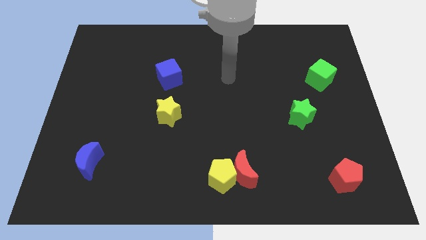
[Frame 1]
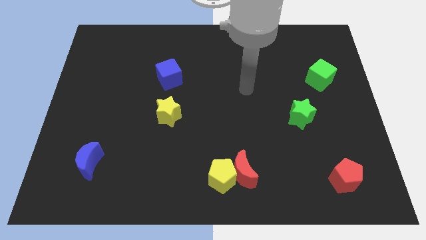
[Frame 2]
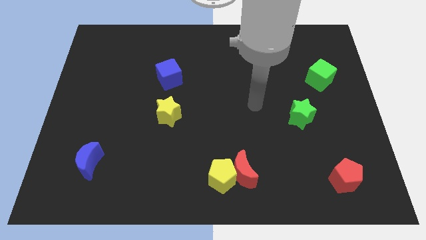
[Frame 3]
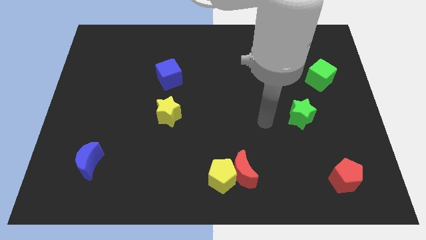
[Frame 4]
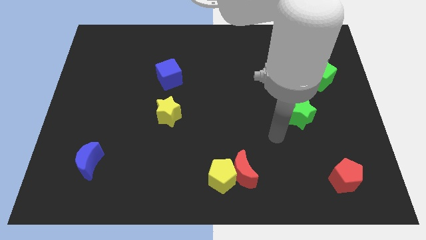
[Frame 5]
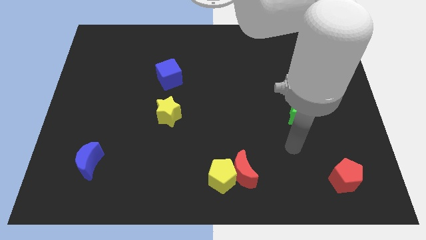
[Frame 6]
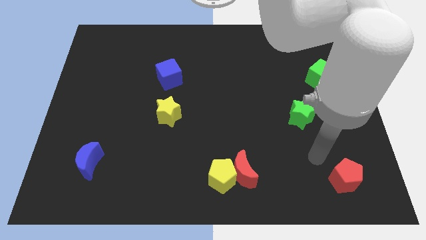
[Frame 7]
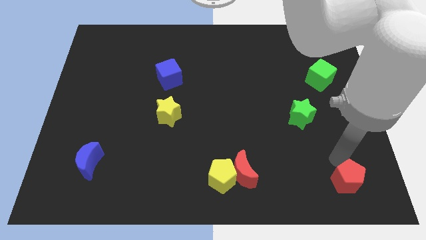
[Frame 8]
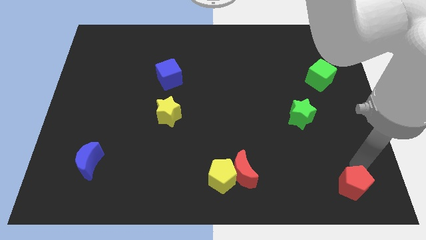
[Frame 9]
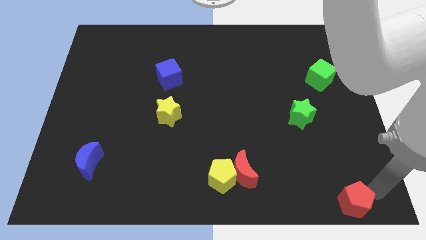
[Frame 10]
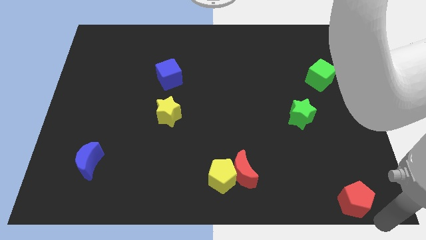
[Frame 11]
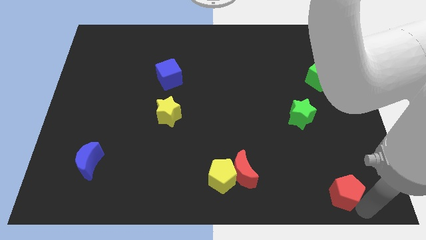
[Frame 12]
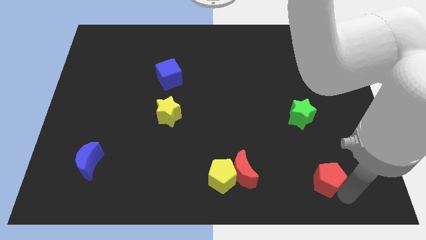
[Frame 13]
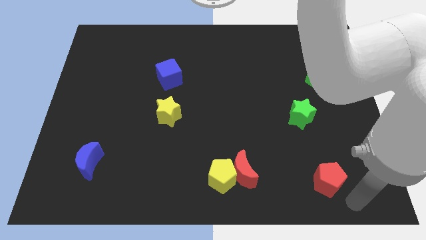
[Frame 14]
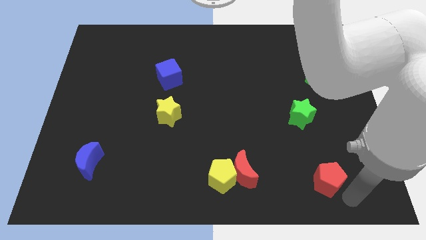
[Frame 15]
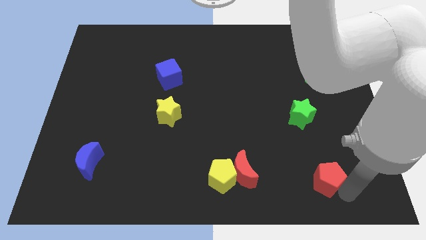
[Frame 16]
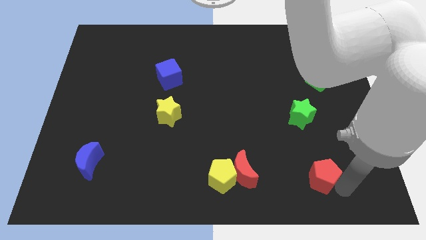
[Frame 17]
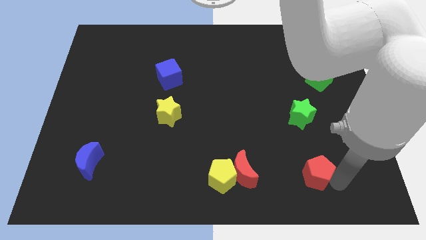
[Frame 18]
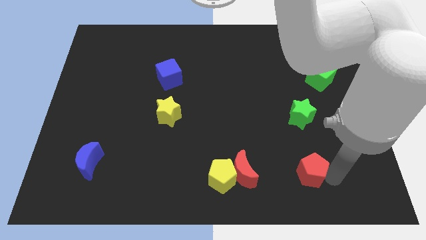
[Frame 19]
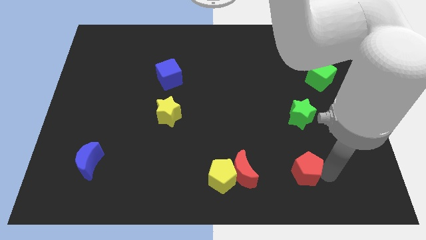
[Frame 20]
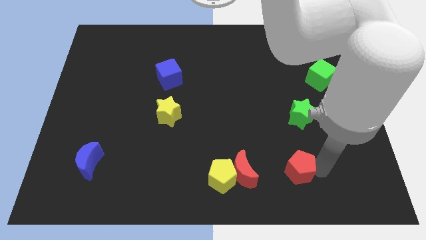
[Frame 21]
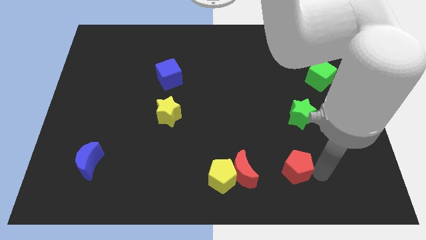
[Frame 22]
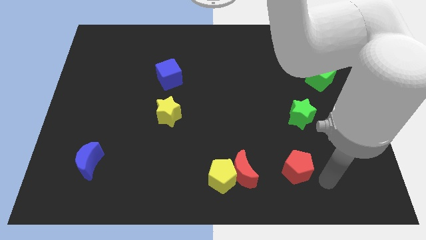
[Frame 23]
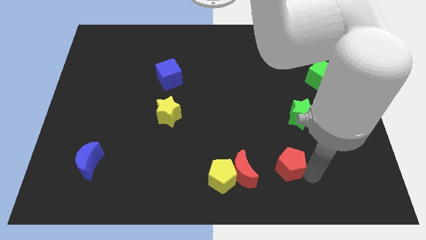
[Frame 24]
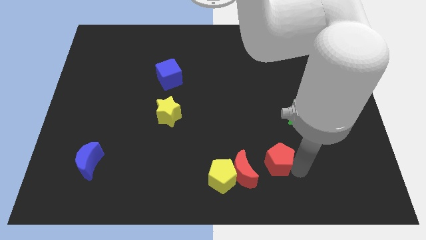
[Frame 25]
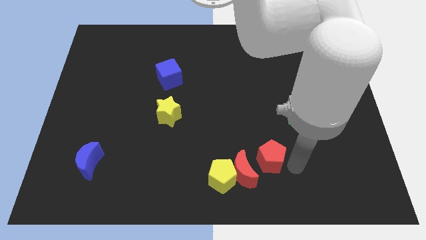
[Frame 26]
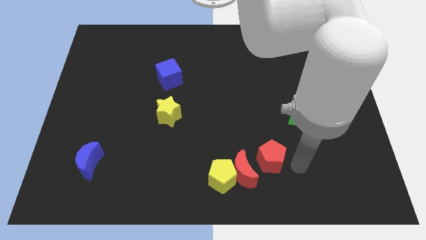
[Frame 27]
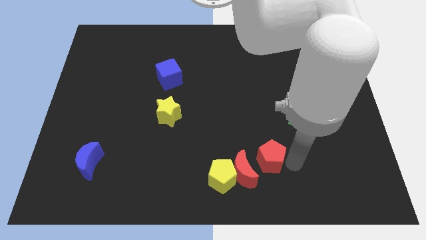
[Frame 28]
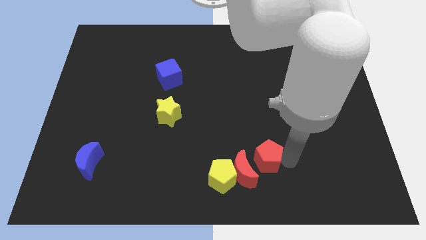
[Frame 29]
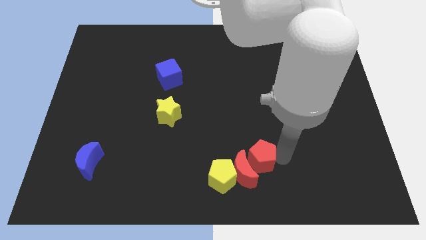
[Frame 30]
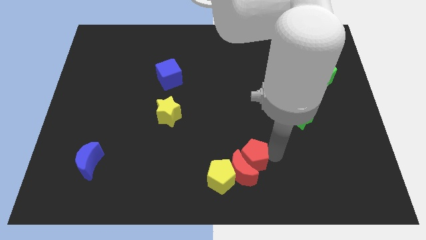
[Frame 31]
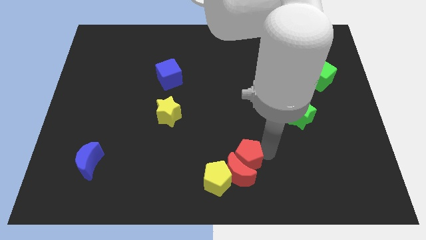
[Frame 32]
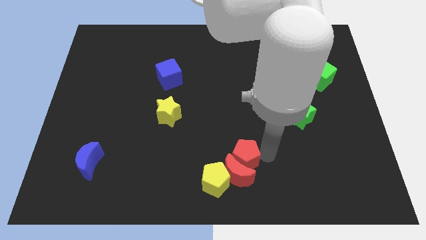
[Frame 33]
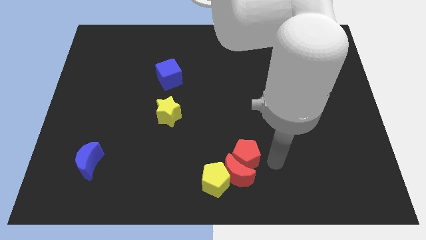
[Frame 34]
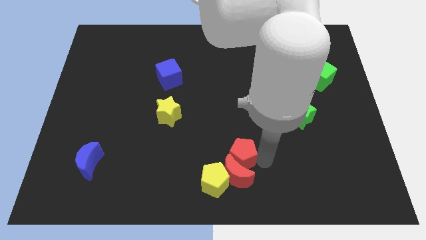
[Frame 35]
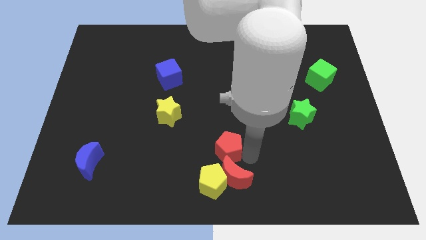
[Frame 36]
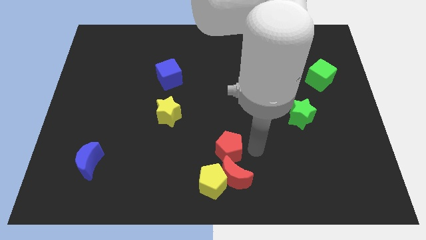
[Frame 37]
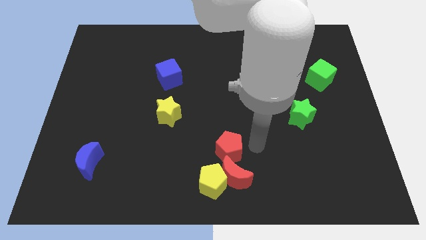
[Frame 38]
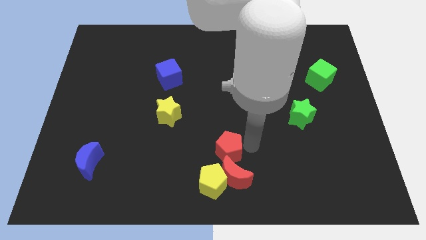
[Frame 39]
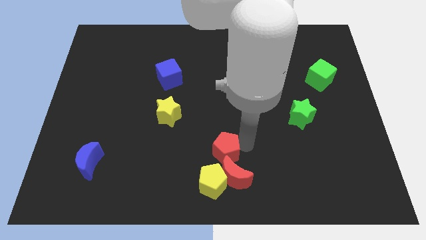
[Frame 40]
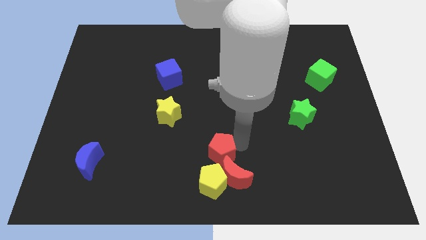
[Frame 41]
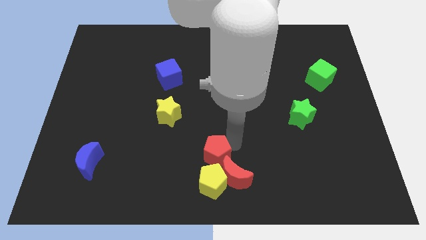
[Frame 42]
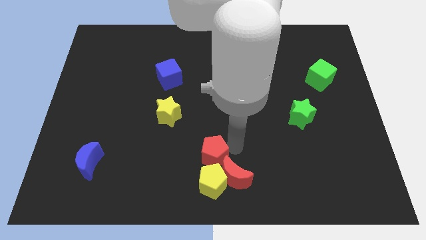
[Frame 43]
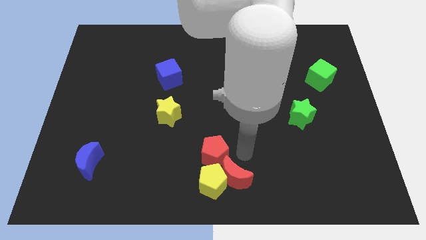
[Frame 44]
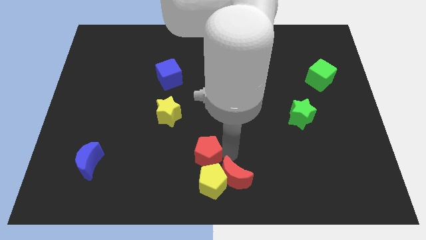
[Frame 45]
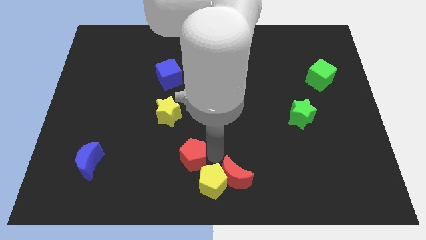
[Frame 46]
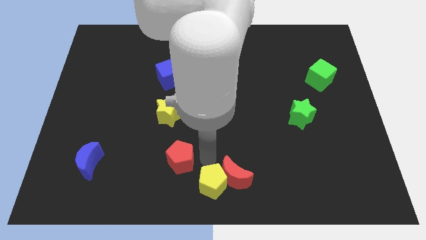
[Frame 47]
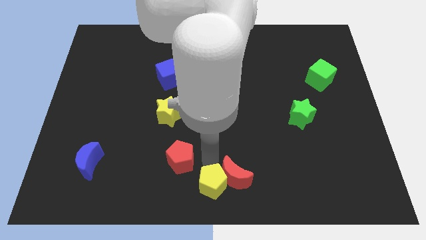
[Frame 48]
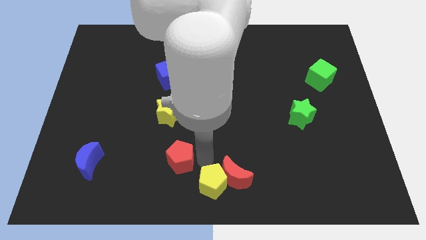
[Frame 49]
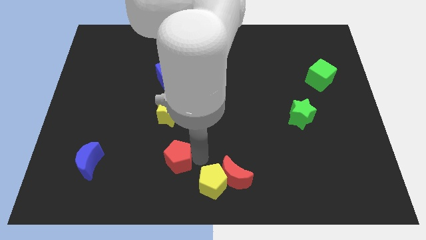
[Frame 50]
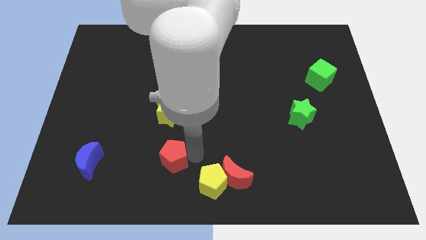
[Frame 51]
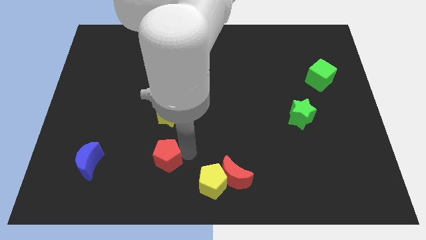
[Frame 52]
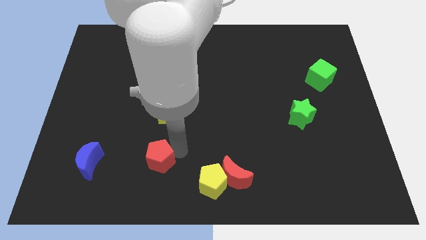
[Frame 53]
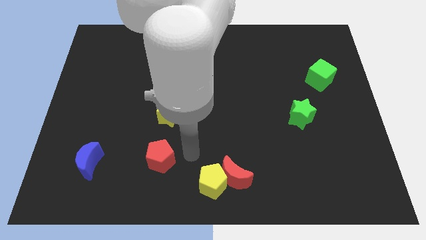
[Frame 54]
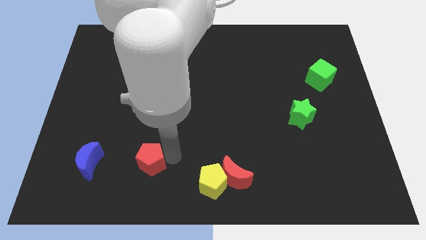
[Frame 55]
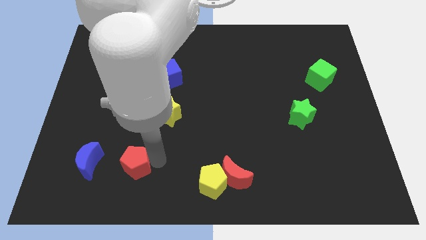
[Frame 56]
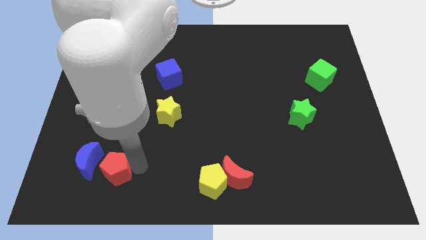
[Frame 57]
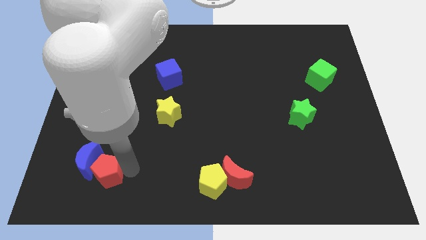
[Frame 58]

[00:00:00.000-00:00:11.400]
put the red pentagon next to the blue moon

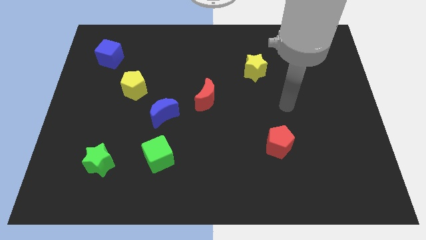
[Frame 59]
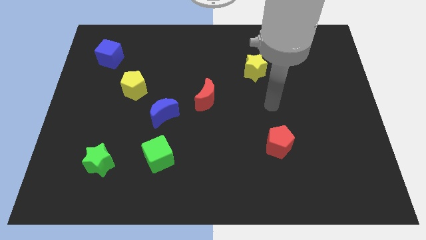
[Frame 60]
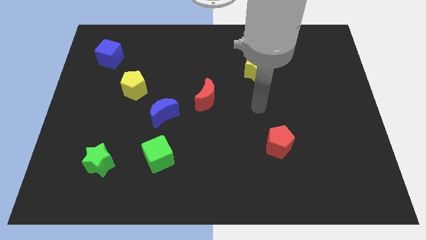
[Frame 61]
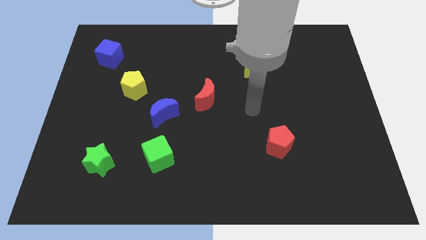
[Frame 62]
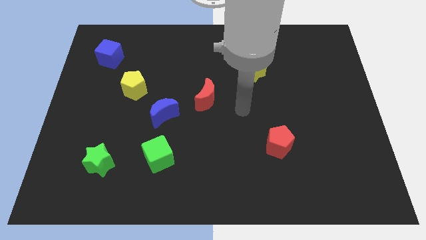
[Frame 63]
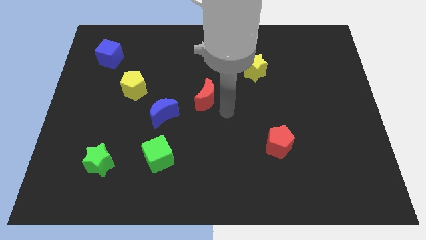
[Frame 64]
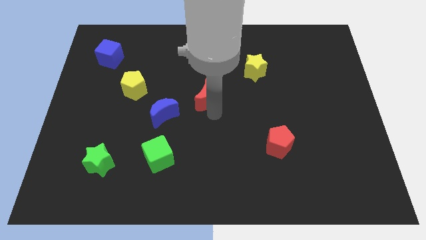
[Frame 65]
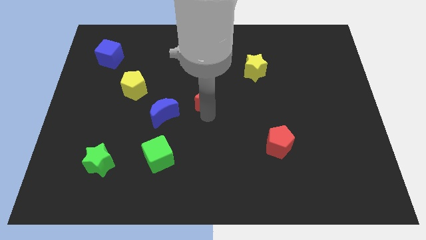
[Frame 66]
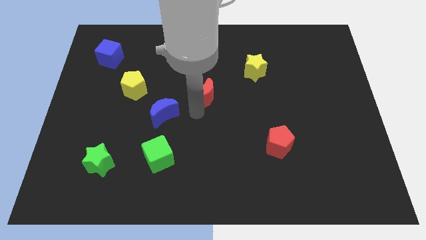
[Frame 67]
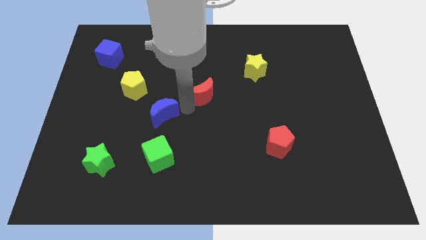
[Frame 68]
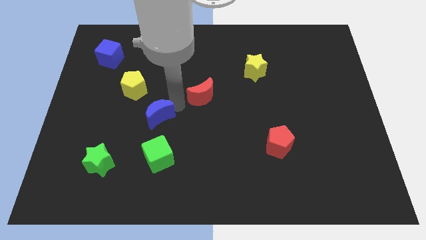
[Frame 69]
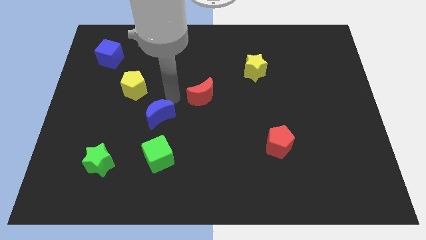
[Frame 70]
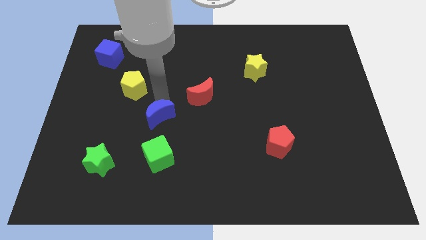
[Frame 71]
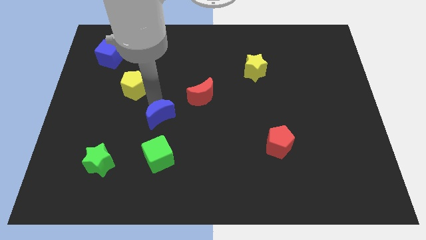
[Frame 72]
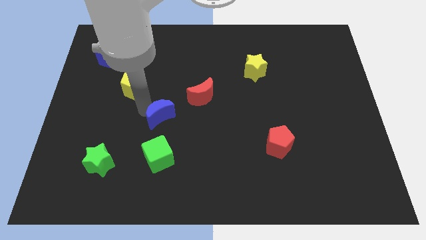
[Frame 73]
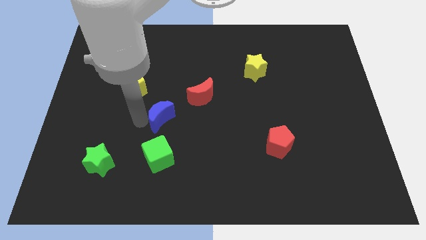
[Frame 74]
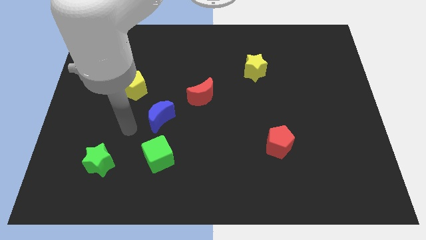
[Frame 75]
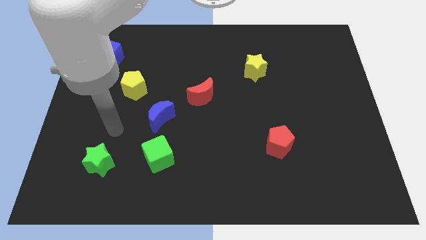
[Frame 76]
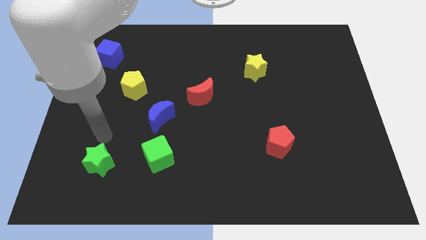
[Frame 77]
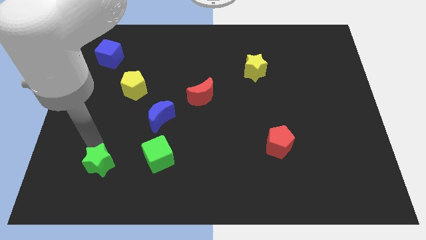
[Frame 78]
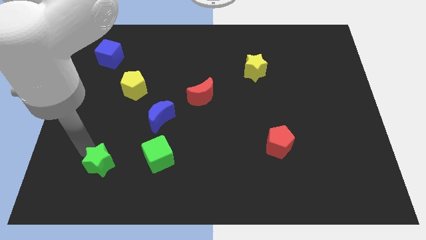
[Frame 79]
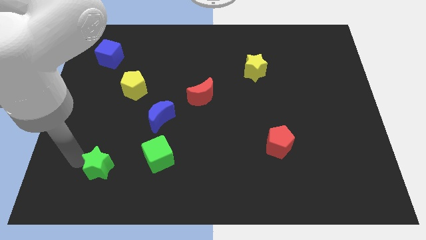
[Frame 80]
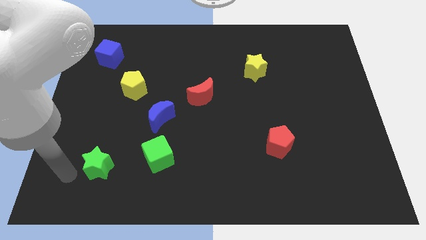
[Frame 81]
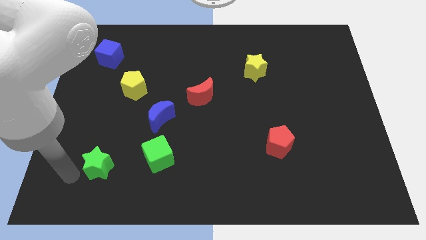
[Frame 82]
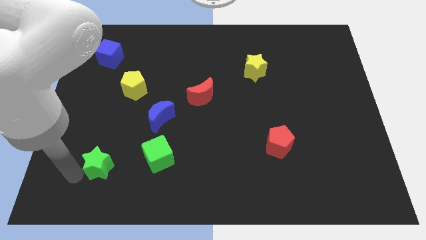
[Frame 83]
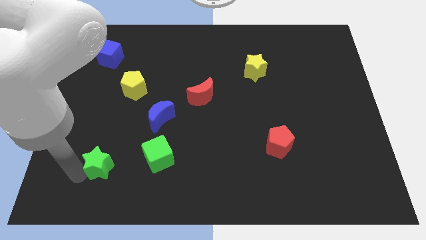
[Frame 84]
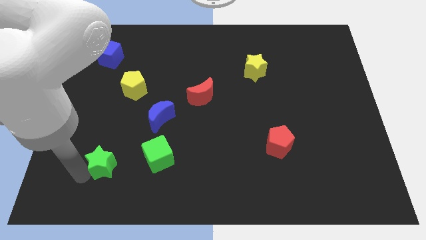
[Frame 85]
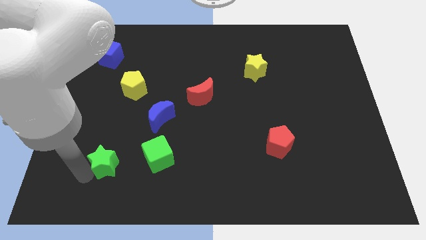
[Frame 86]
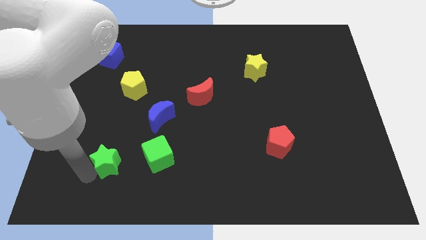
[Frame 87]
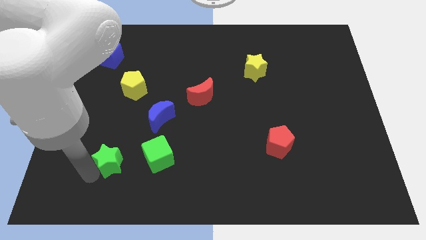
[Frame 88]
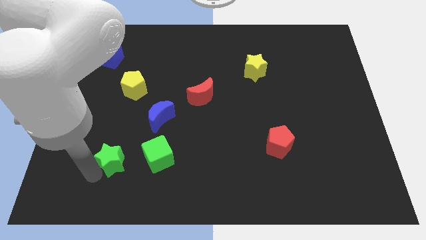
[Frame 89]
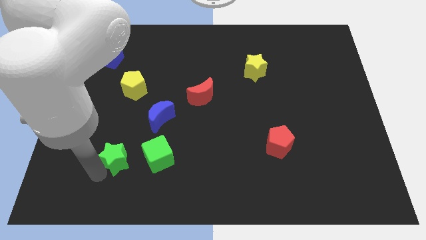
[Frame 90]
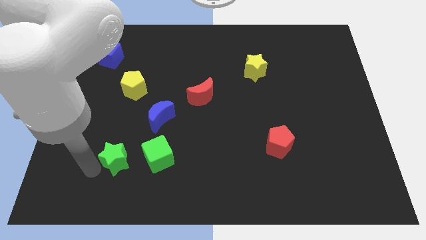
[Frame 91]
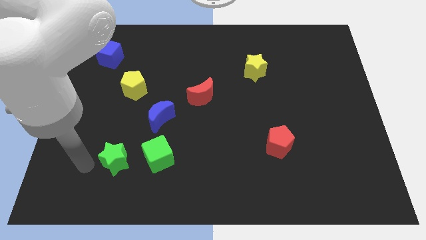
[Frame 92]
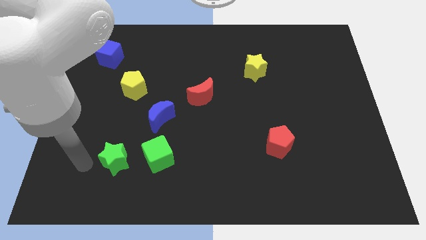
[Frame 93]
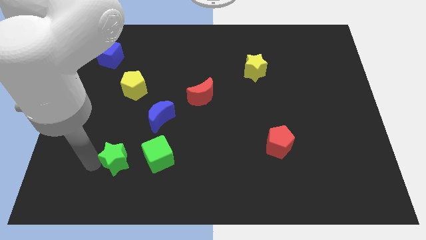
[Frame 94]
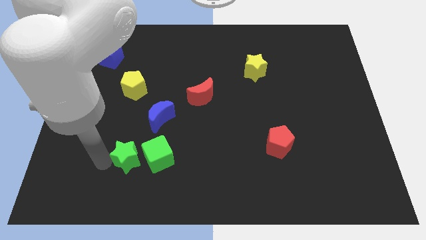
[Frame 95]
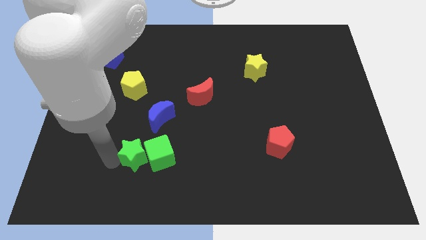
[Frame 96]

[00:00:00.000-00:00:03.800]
push the green star to the green cube
